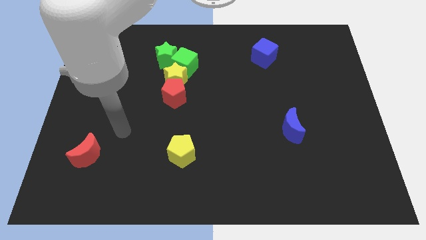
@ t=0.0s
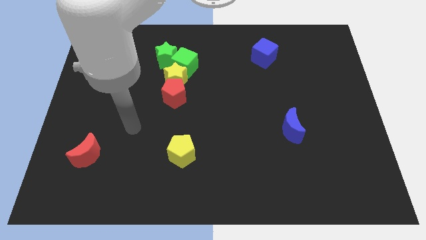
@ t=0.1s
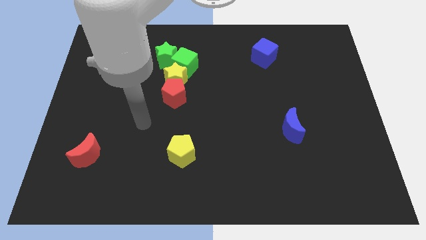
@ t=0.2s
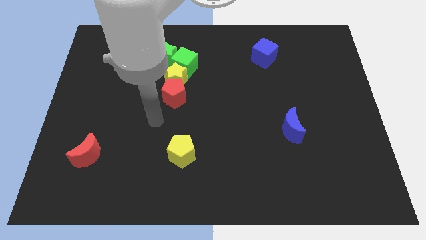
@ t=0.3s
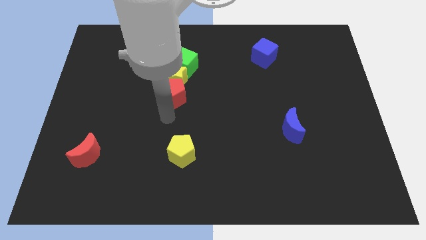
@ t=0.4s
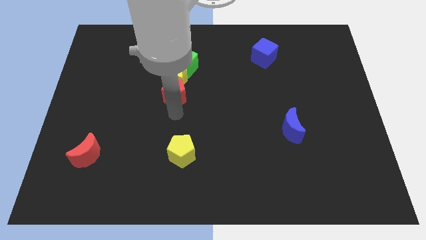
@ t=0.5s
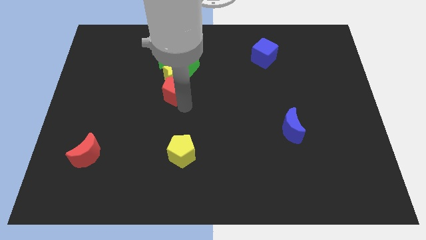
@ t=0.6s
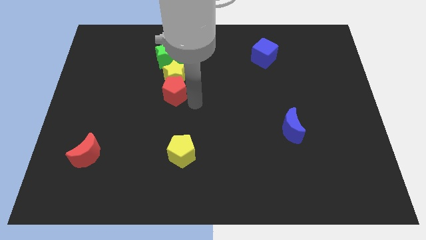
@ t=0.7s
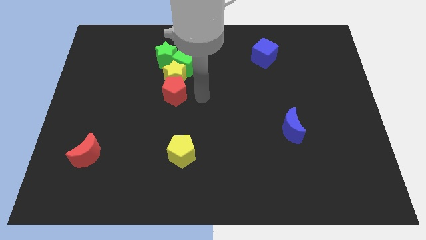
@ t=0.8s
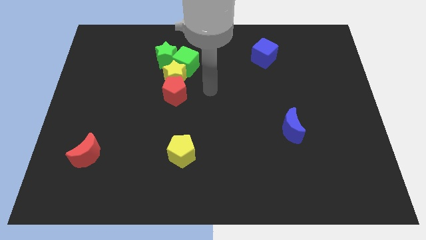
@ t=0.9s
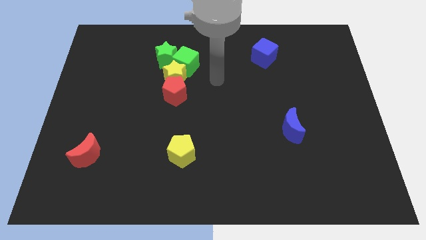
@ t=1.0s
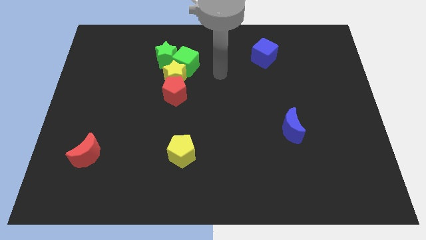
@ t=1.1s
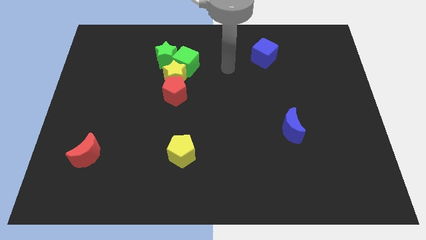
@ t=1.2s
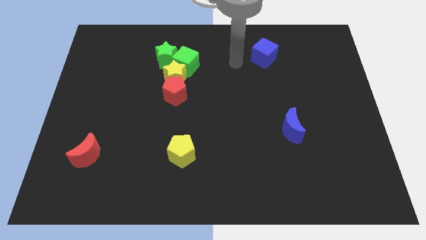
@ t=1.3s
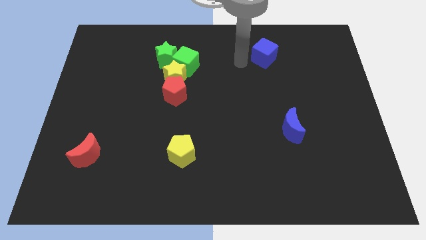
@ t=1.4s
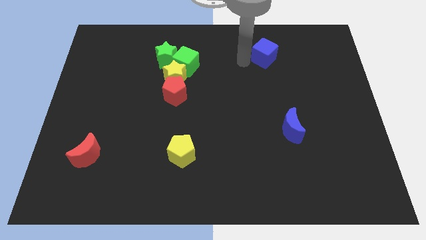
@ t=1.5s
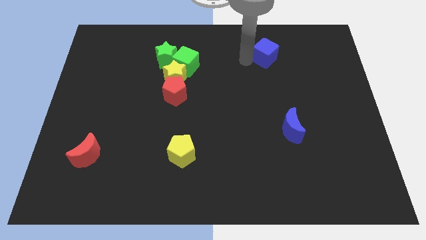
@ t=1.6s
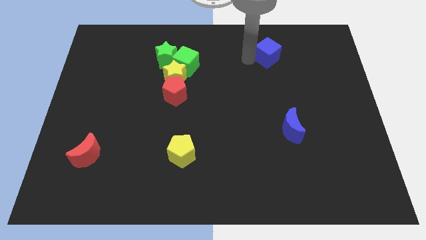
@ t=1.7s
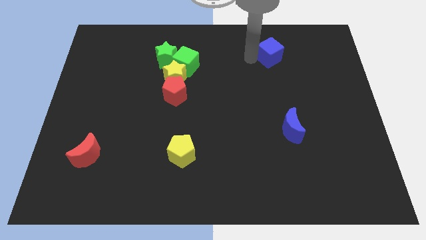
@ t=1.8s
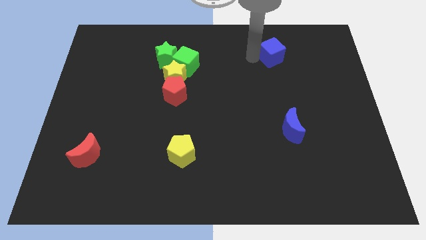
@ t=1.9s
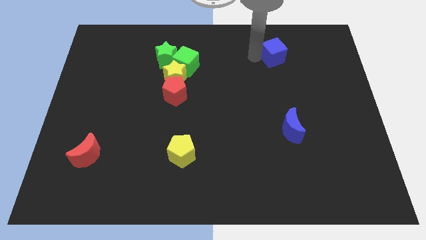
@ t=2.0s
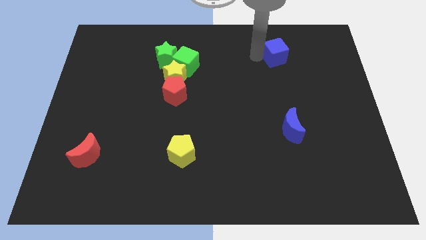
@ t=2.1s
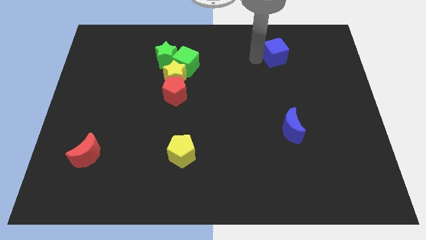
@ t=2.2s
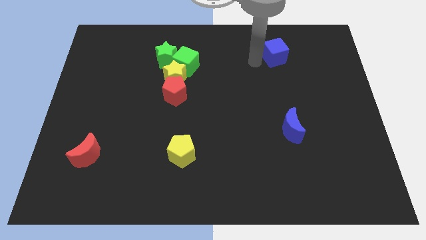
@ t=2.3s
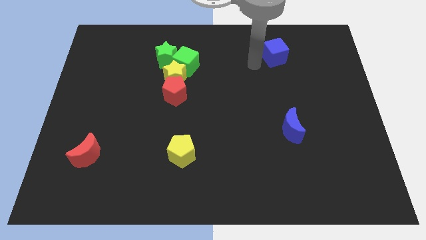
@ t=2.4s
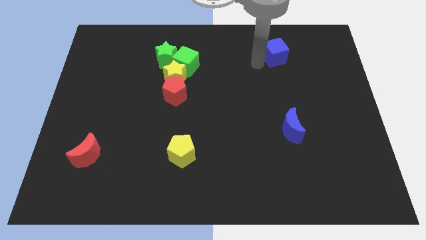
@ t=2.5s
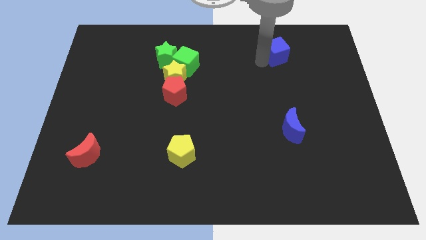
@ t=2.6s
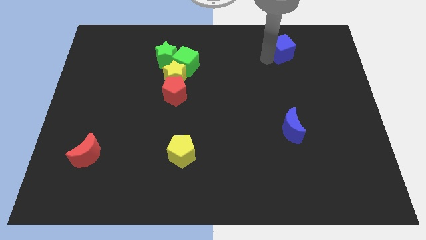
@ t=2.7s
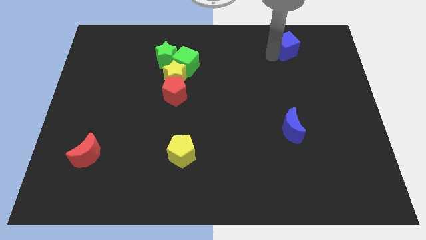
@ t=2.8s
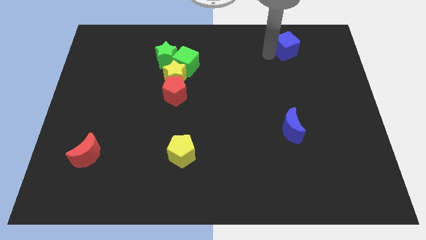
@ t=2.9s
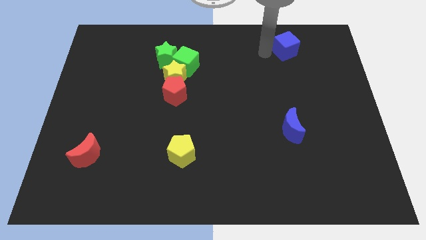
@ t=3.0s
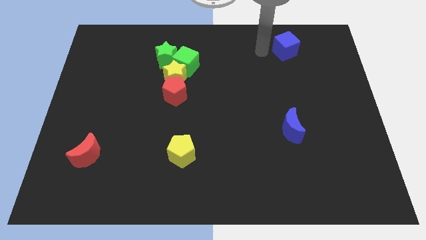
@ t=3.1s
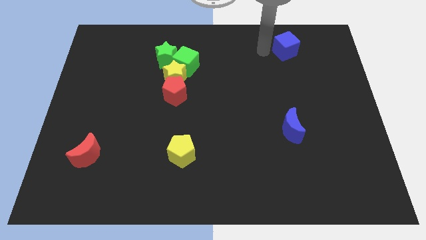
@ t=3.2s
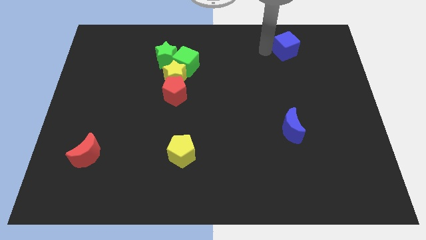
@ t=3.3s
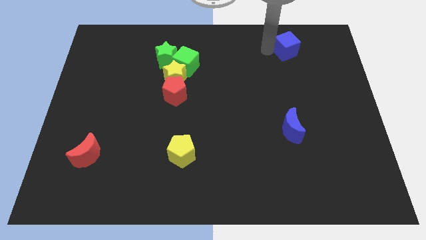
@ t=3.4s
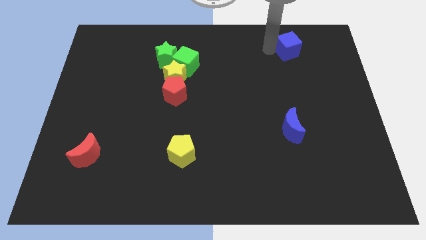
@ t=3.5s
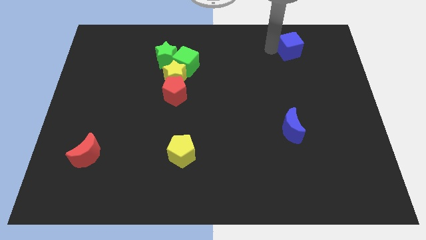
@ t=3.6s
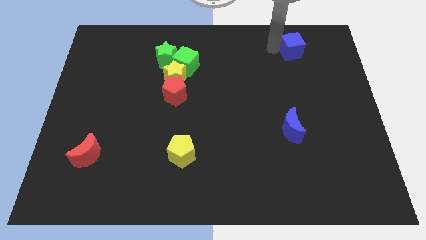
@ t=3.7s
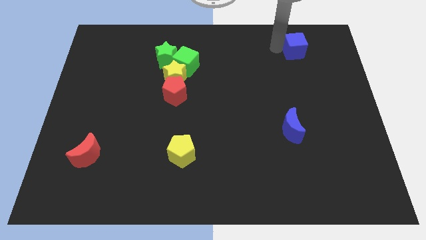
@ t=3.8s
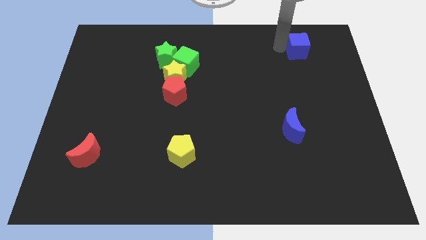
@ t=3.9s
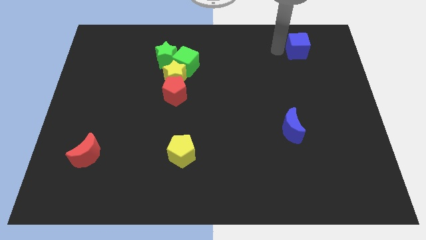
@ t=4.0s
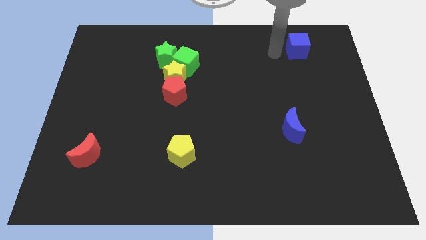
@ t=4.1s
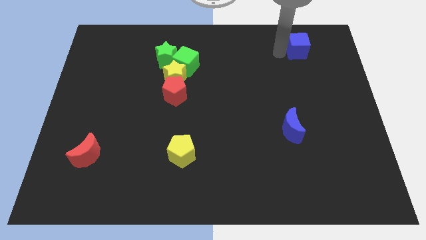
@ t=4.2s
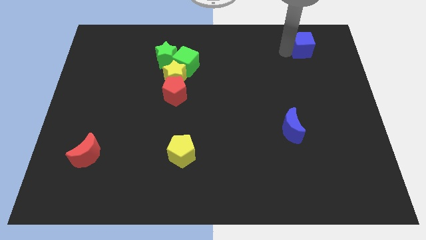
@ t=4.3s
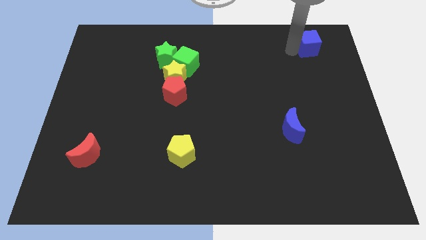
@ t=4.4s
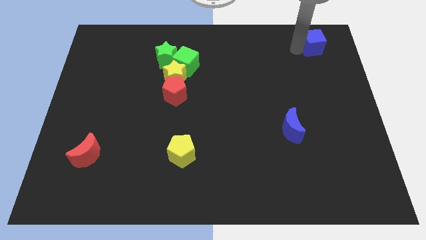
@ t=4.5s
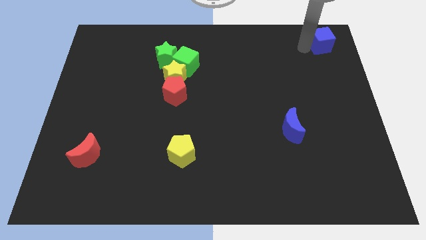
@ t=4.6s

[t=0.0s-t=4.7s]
put the blue cube to the top right corner

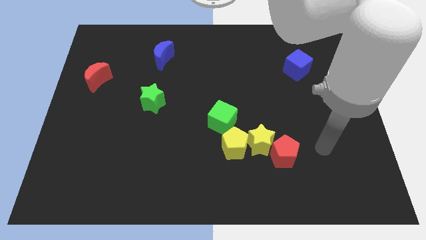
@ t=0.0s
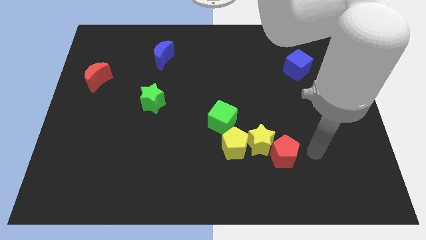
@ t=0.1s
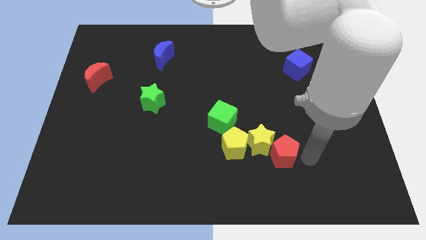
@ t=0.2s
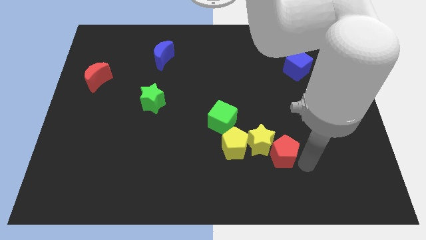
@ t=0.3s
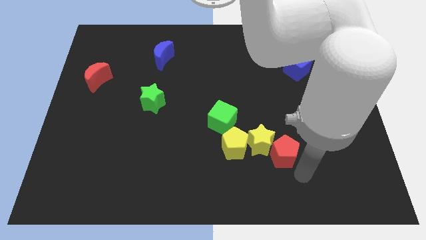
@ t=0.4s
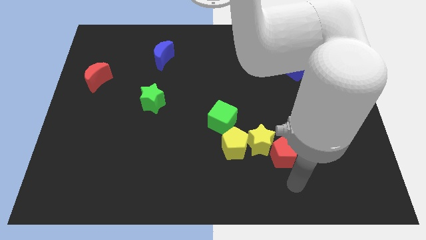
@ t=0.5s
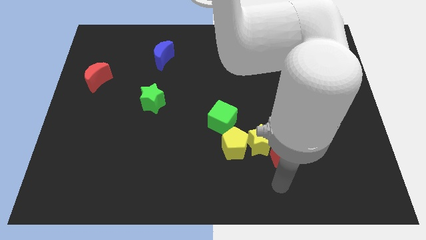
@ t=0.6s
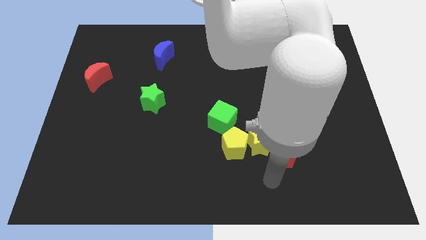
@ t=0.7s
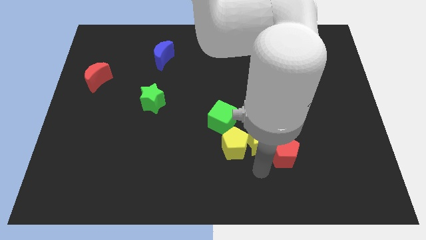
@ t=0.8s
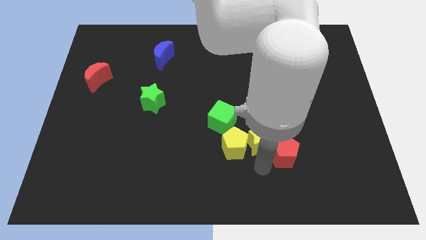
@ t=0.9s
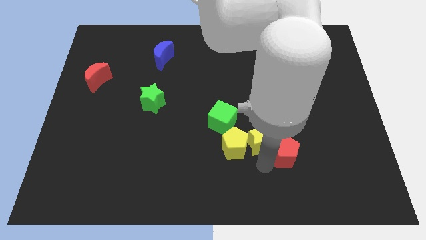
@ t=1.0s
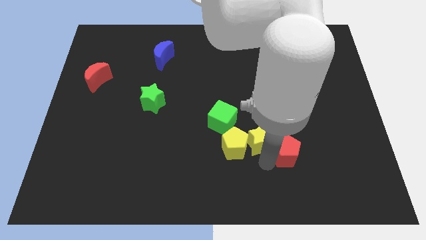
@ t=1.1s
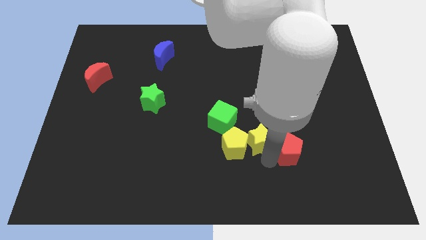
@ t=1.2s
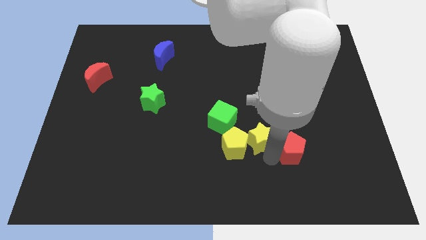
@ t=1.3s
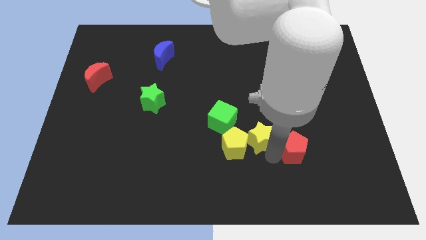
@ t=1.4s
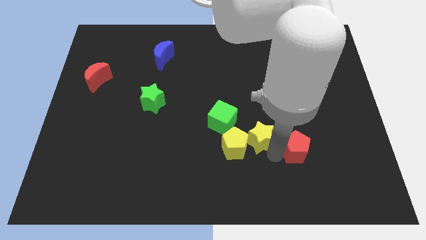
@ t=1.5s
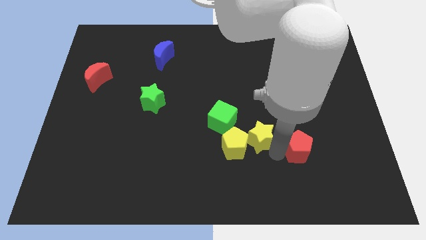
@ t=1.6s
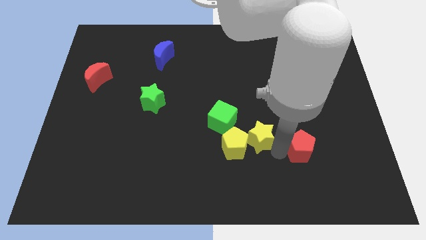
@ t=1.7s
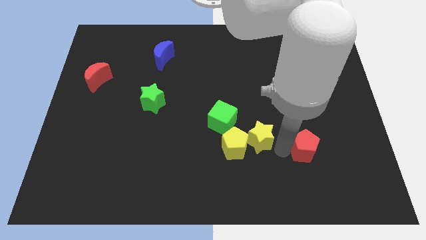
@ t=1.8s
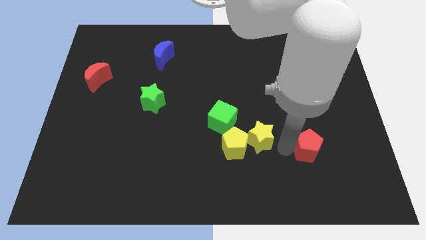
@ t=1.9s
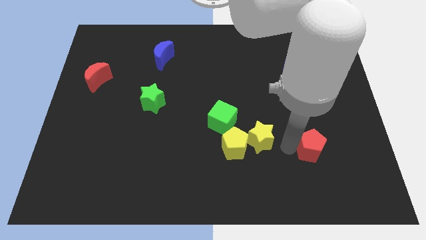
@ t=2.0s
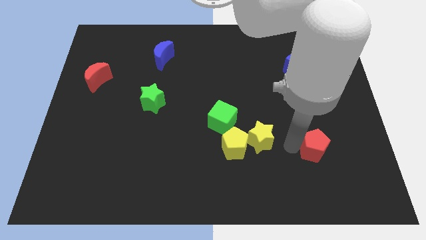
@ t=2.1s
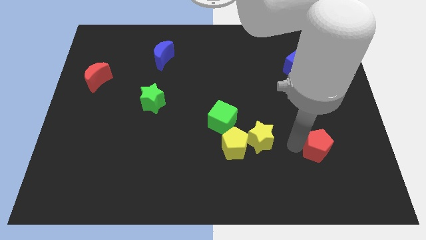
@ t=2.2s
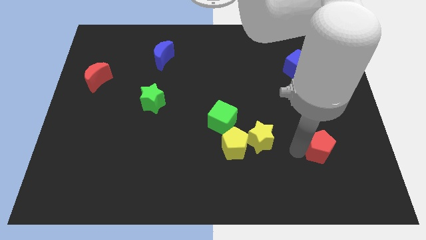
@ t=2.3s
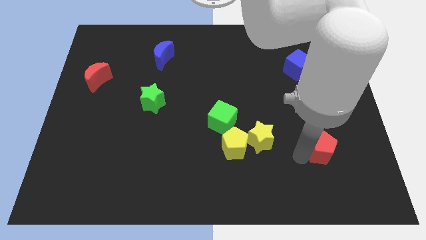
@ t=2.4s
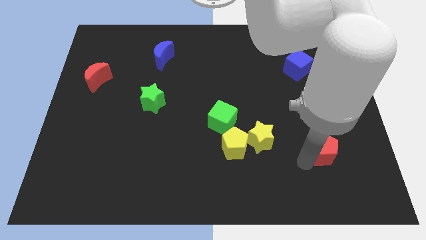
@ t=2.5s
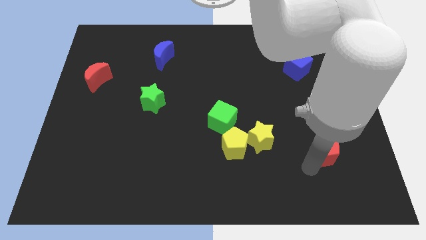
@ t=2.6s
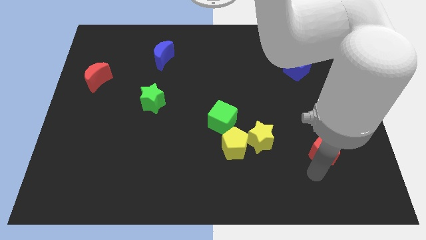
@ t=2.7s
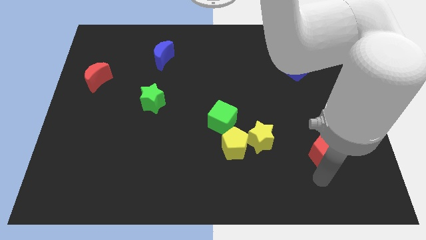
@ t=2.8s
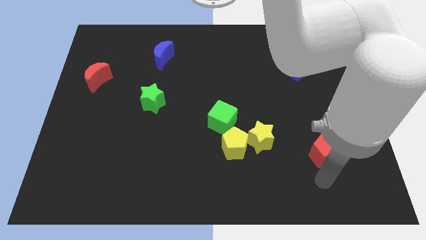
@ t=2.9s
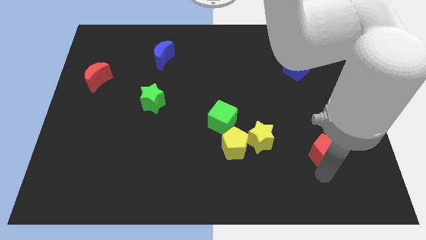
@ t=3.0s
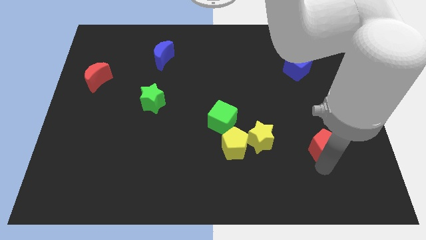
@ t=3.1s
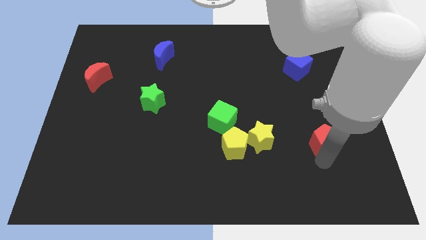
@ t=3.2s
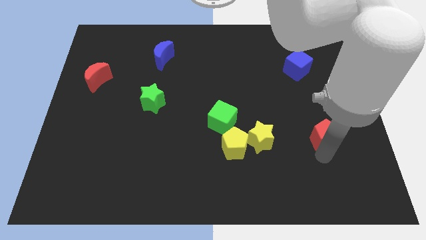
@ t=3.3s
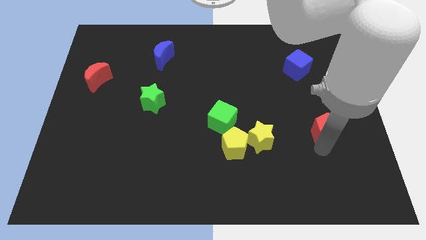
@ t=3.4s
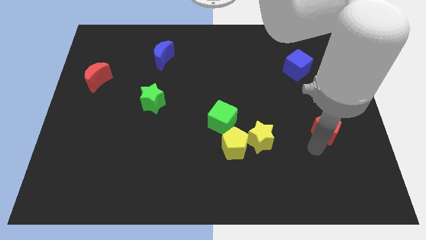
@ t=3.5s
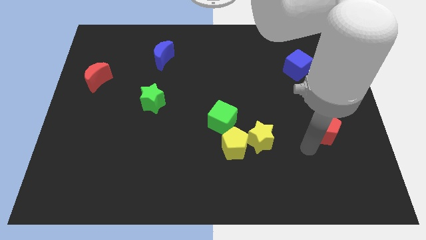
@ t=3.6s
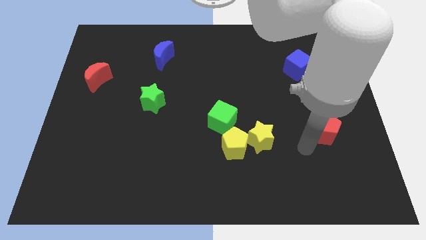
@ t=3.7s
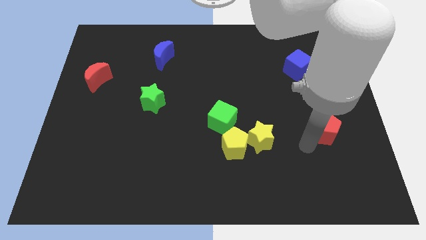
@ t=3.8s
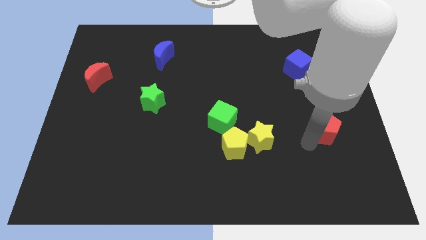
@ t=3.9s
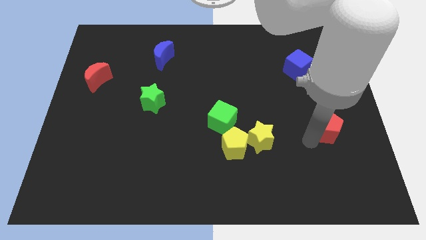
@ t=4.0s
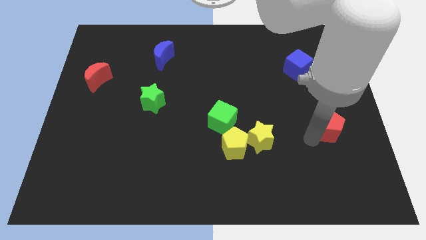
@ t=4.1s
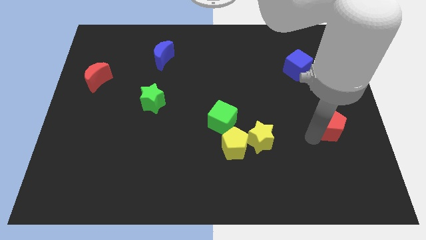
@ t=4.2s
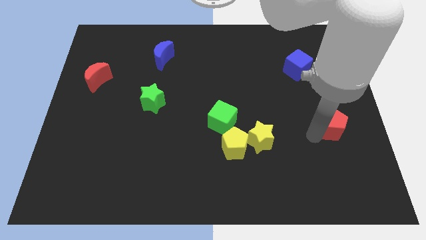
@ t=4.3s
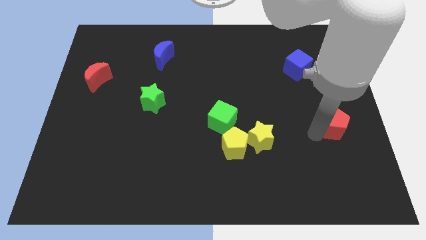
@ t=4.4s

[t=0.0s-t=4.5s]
push the red pentagon to the right side of the board
